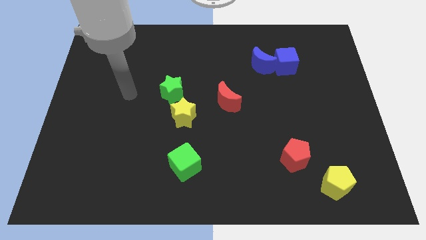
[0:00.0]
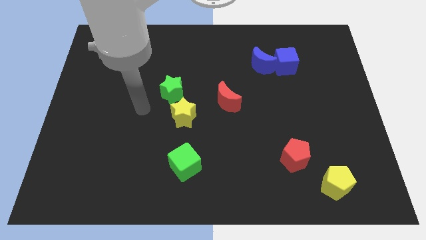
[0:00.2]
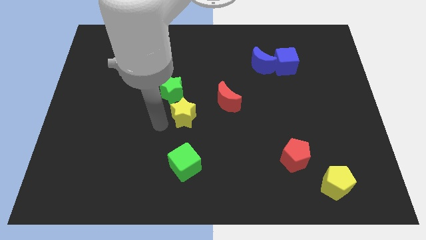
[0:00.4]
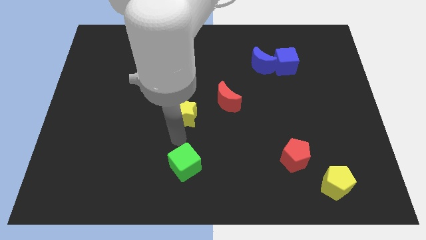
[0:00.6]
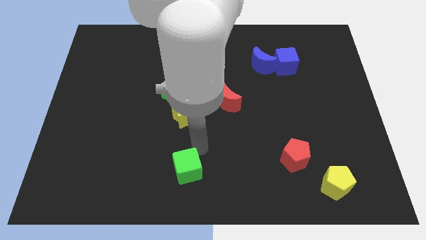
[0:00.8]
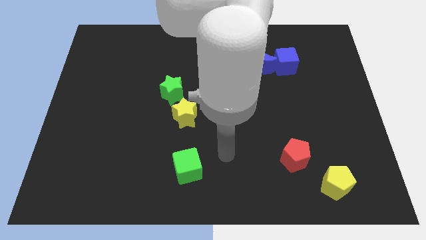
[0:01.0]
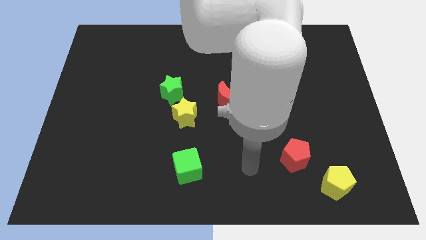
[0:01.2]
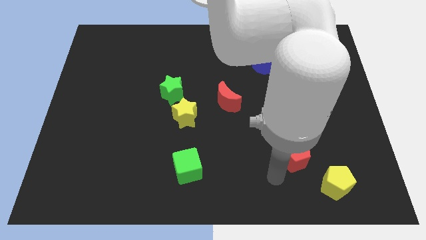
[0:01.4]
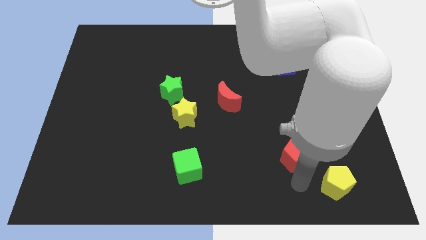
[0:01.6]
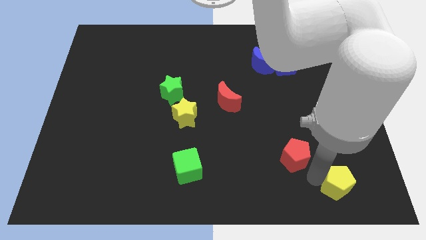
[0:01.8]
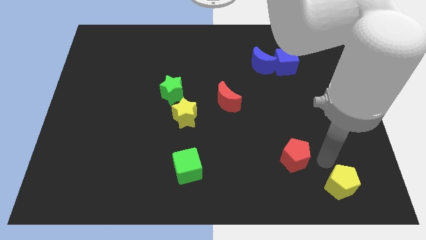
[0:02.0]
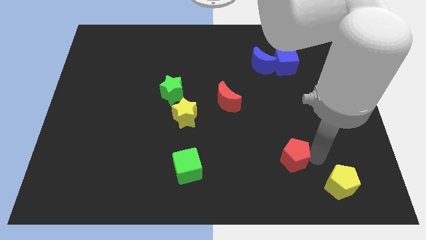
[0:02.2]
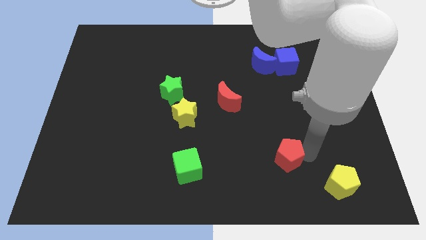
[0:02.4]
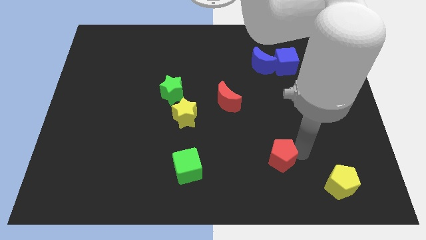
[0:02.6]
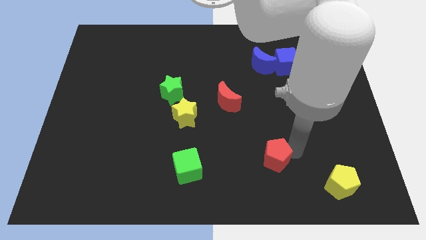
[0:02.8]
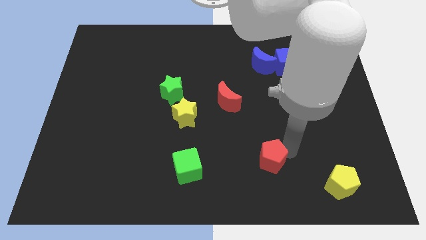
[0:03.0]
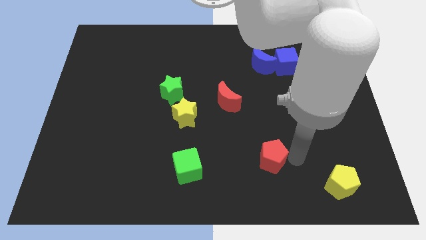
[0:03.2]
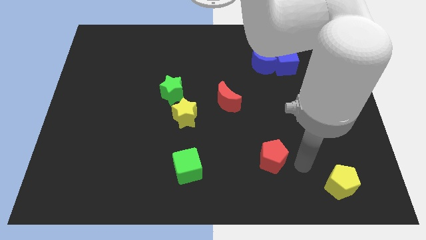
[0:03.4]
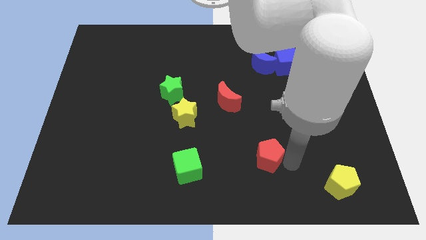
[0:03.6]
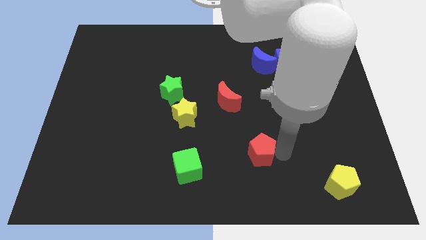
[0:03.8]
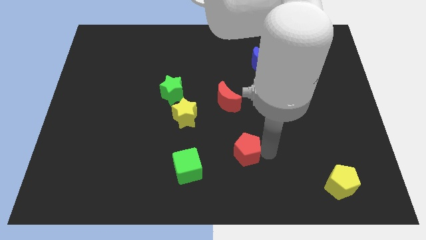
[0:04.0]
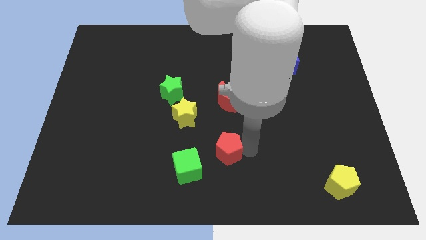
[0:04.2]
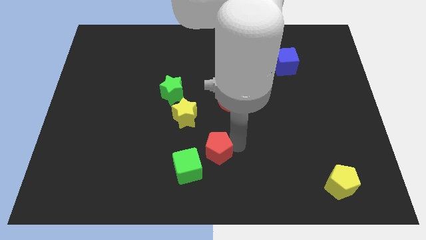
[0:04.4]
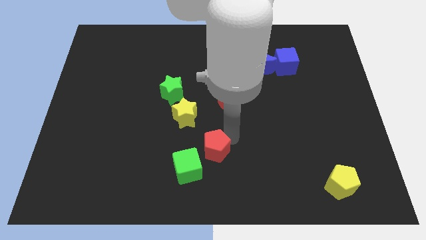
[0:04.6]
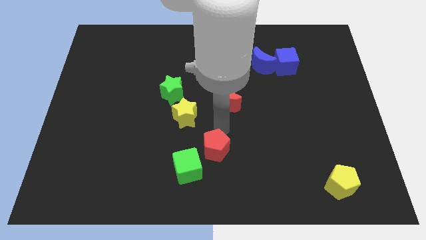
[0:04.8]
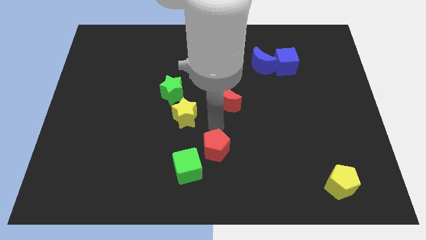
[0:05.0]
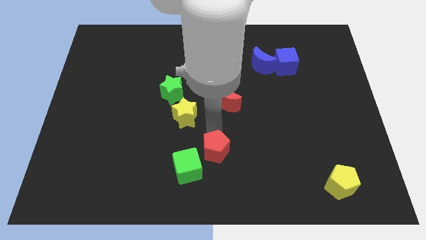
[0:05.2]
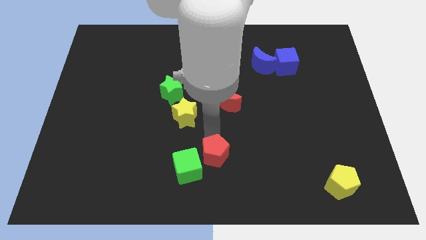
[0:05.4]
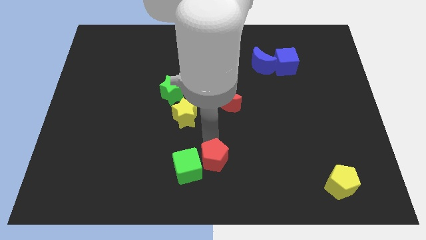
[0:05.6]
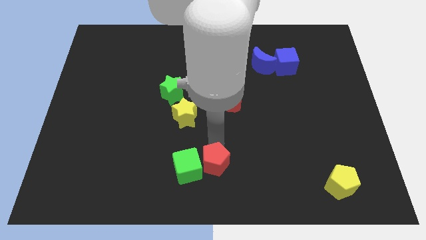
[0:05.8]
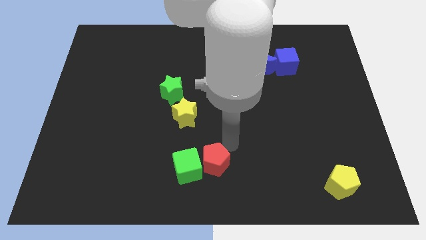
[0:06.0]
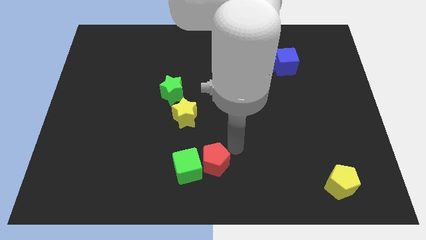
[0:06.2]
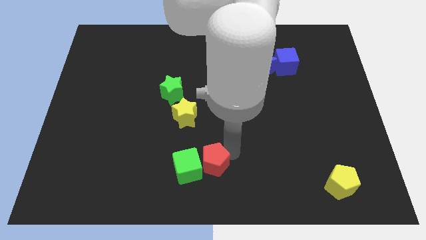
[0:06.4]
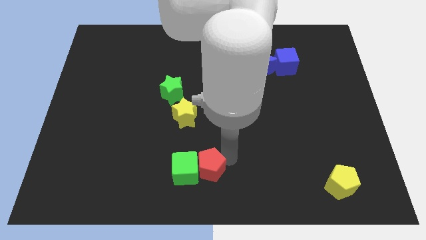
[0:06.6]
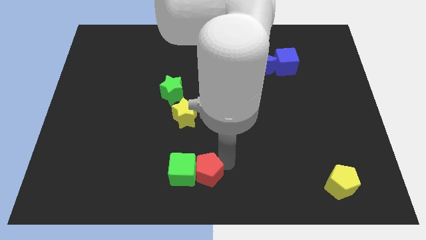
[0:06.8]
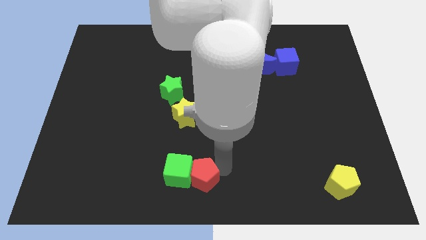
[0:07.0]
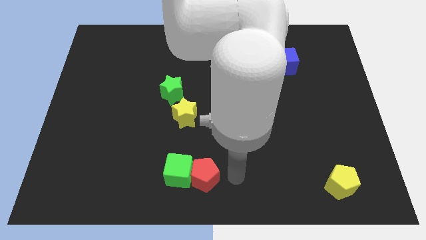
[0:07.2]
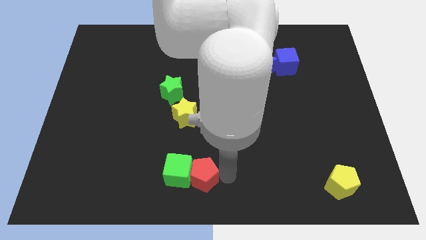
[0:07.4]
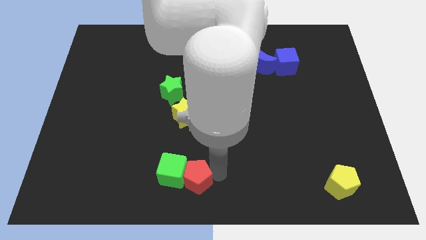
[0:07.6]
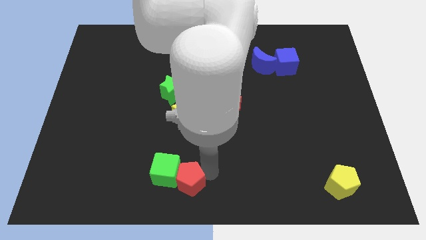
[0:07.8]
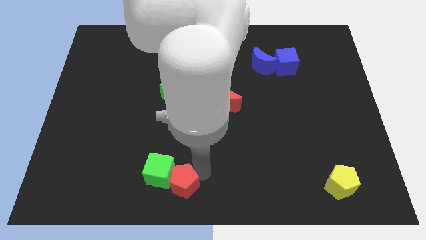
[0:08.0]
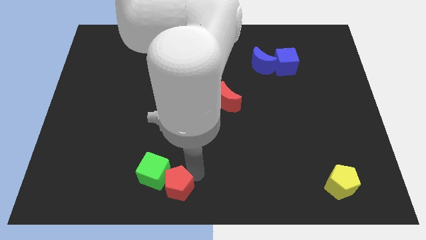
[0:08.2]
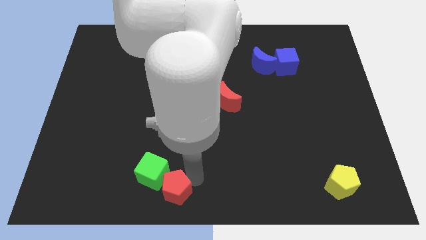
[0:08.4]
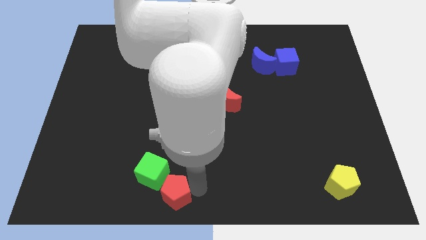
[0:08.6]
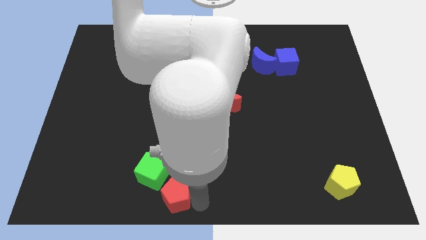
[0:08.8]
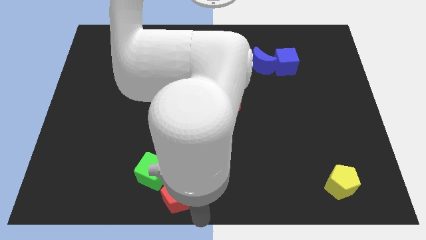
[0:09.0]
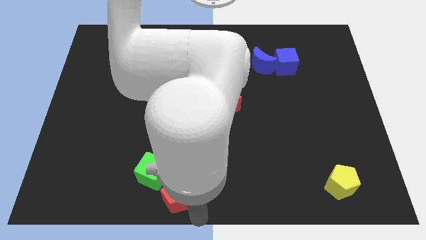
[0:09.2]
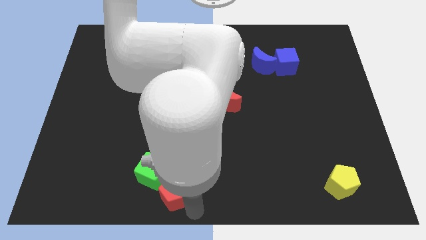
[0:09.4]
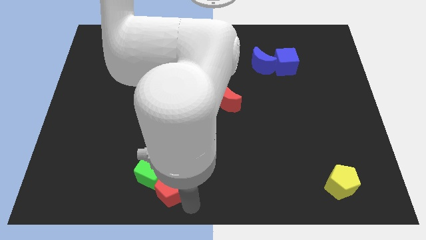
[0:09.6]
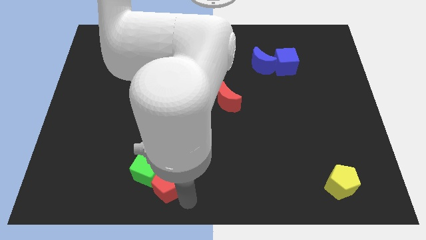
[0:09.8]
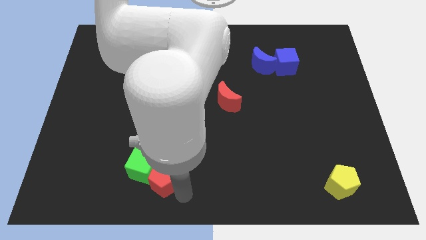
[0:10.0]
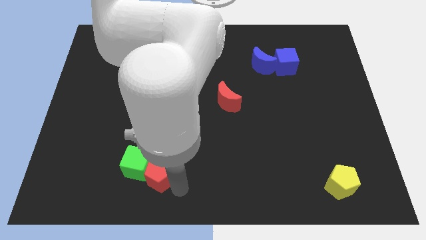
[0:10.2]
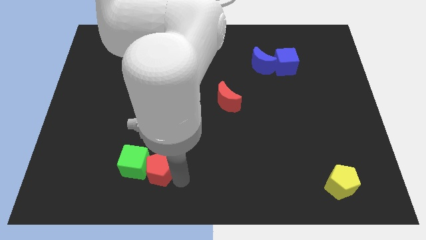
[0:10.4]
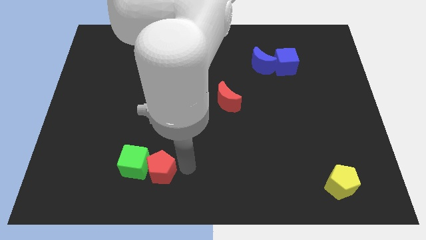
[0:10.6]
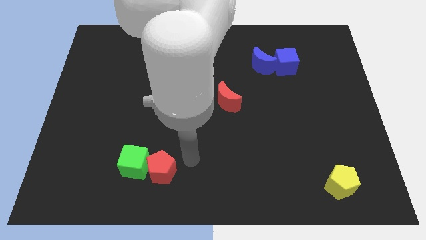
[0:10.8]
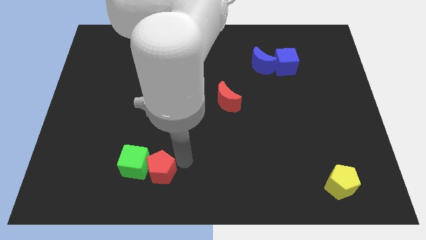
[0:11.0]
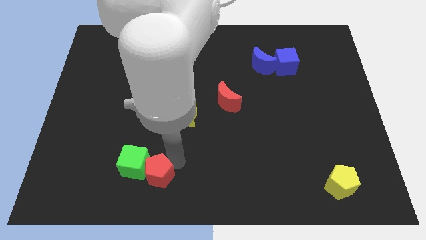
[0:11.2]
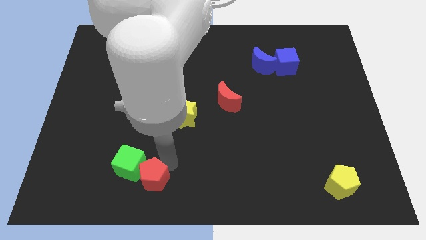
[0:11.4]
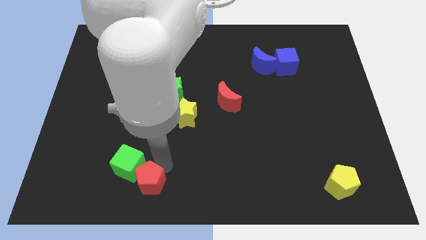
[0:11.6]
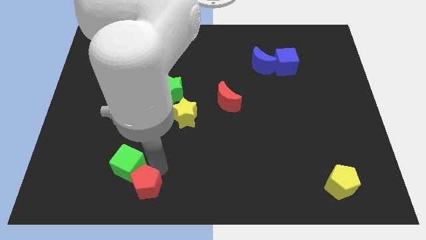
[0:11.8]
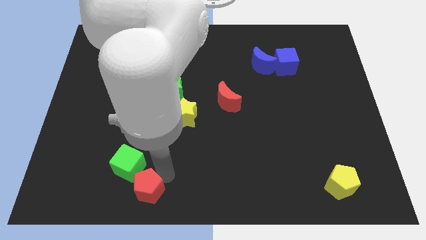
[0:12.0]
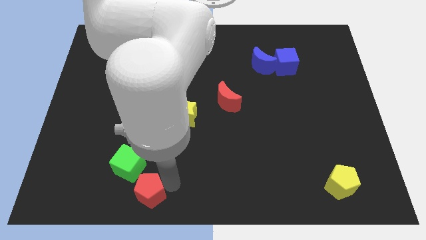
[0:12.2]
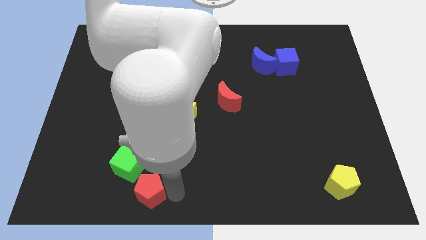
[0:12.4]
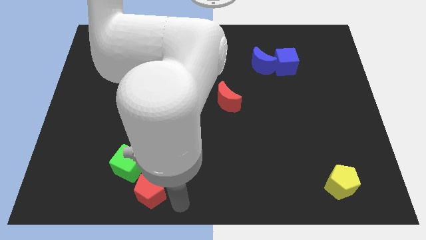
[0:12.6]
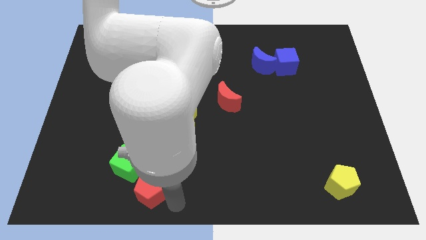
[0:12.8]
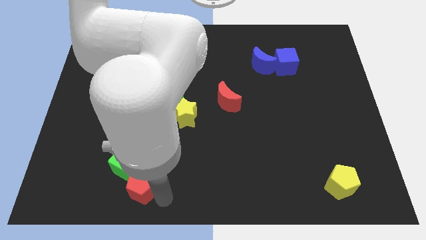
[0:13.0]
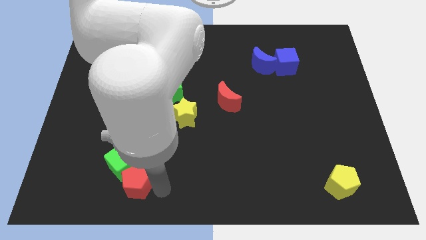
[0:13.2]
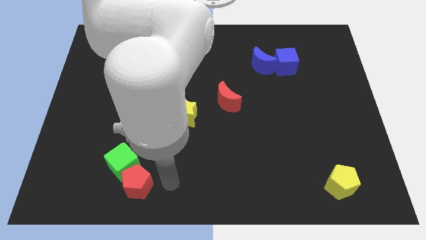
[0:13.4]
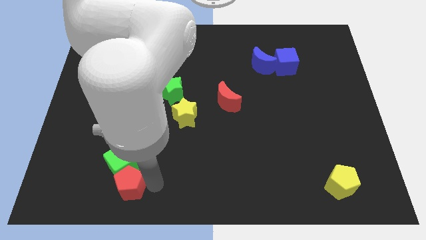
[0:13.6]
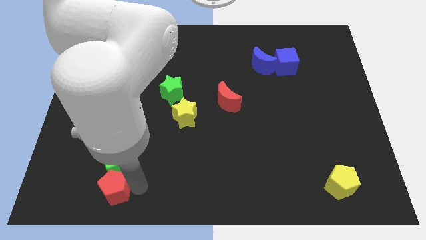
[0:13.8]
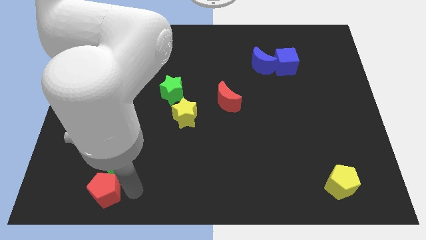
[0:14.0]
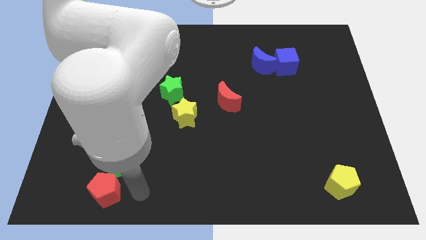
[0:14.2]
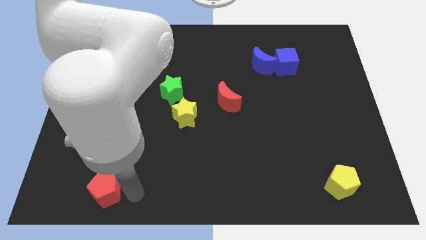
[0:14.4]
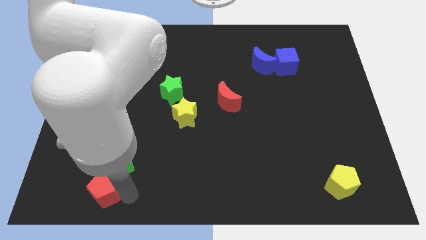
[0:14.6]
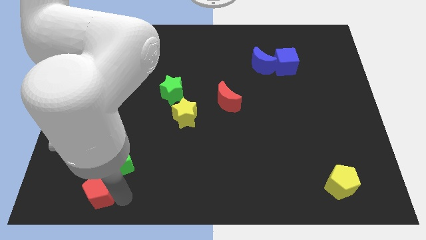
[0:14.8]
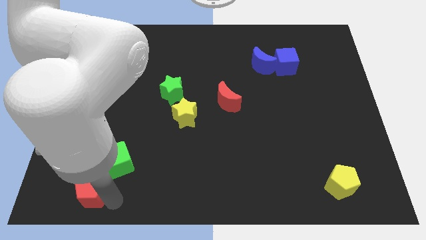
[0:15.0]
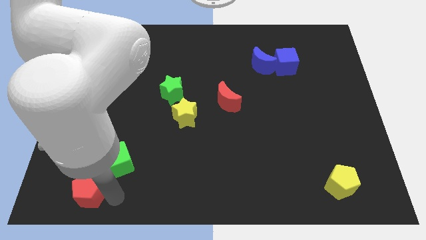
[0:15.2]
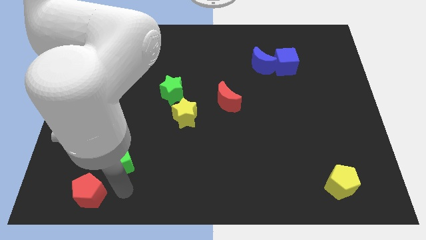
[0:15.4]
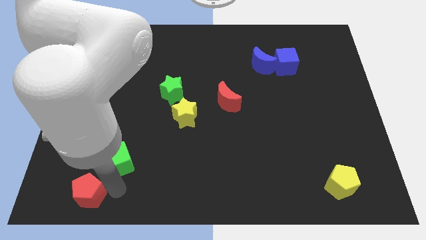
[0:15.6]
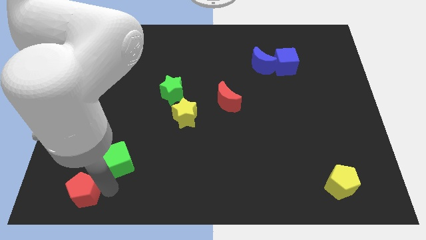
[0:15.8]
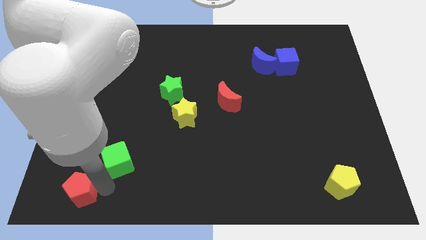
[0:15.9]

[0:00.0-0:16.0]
slide the red pentagon to the lower left corner
